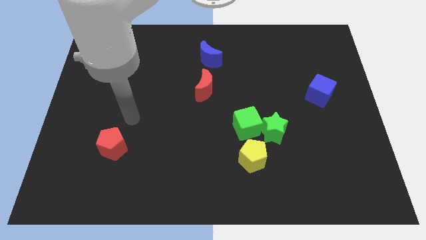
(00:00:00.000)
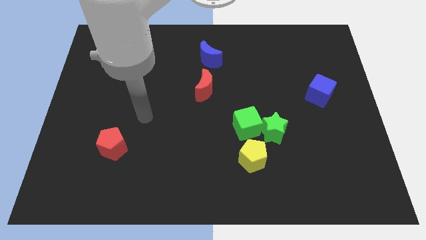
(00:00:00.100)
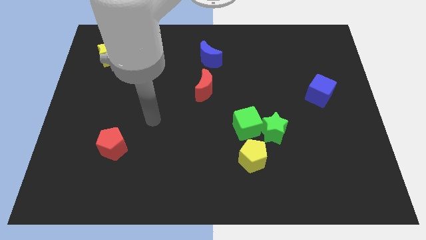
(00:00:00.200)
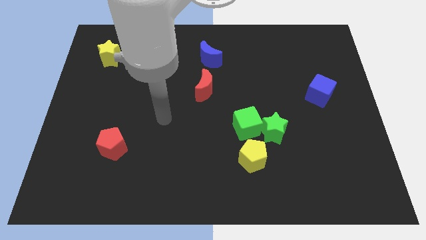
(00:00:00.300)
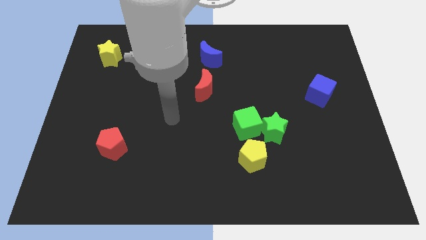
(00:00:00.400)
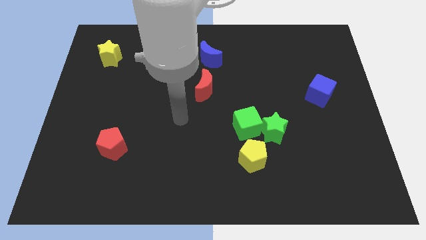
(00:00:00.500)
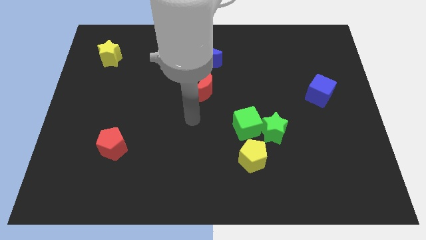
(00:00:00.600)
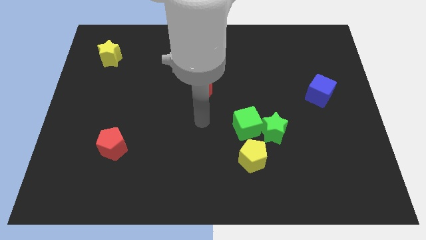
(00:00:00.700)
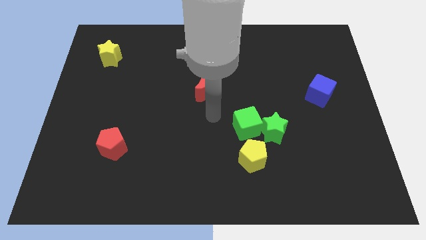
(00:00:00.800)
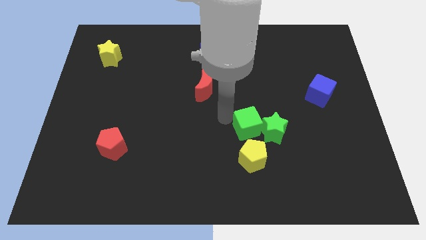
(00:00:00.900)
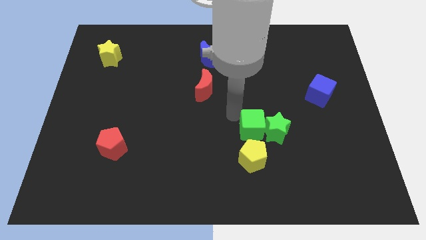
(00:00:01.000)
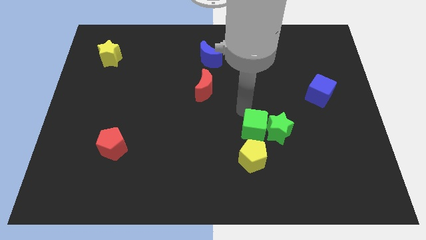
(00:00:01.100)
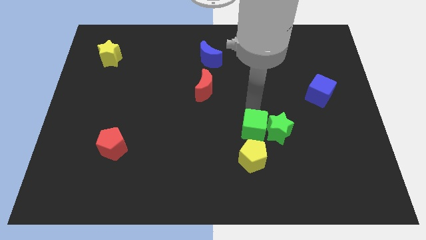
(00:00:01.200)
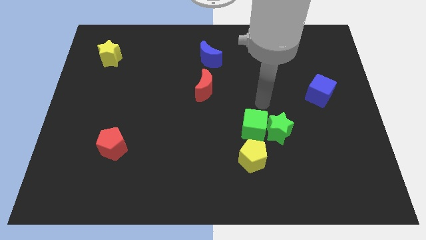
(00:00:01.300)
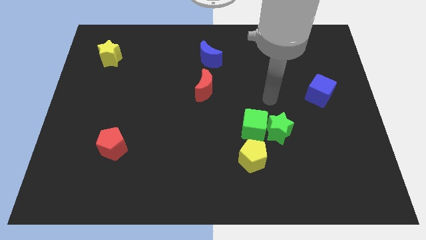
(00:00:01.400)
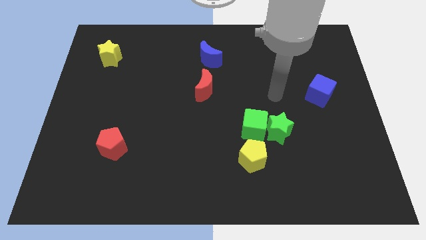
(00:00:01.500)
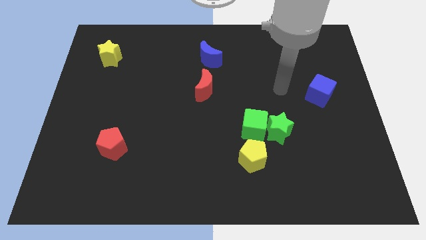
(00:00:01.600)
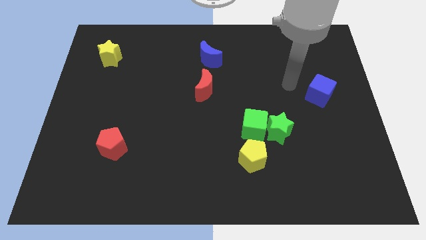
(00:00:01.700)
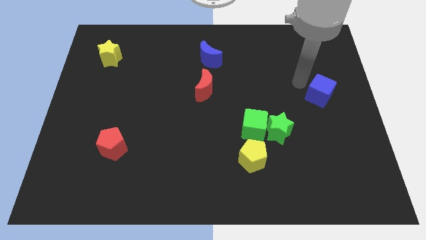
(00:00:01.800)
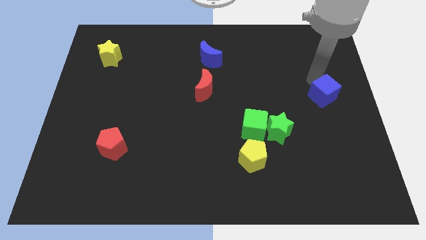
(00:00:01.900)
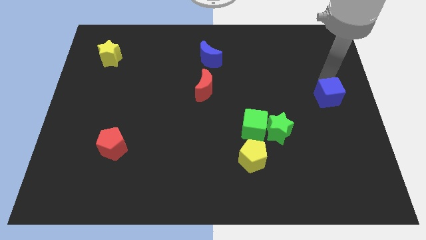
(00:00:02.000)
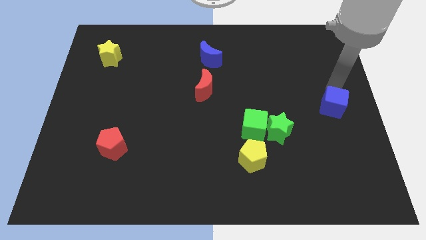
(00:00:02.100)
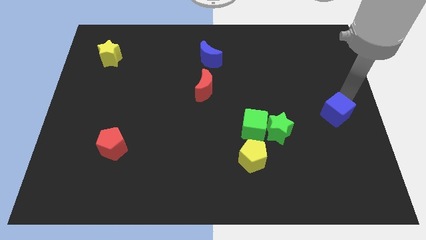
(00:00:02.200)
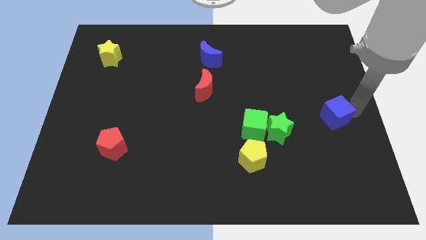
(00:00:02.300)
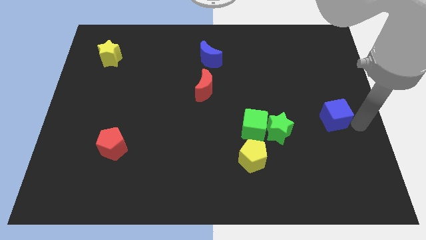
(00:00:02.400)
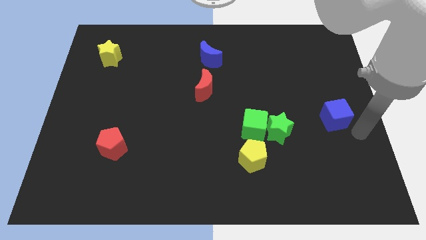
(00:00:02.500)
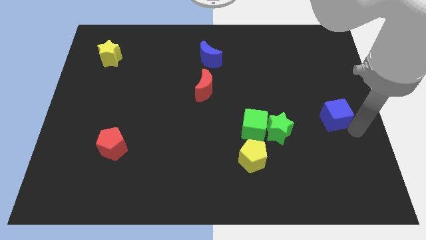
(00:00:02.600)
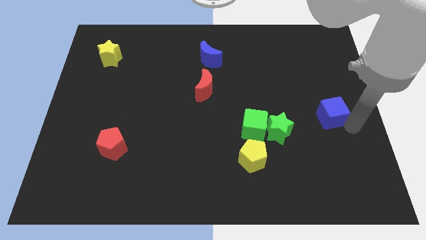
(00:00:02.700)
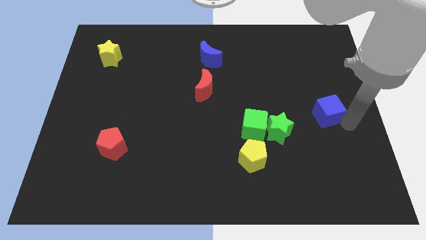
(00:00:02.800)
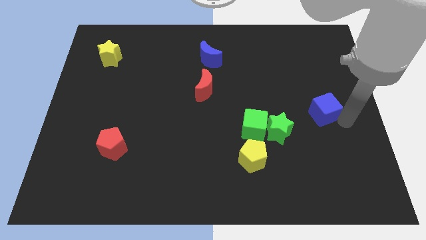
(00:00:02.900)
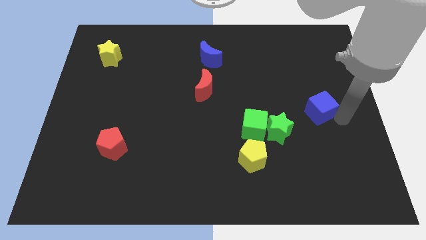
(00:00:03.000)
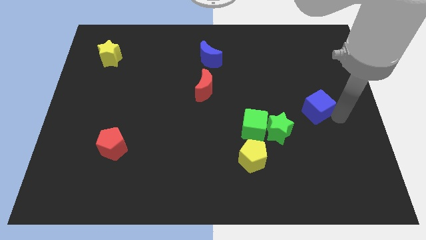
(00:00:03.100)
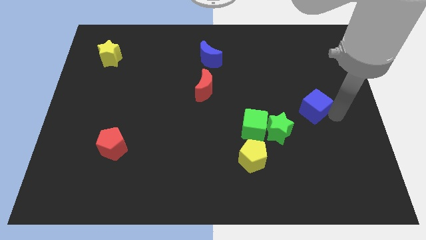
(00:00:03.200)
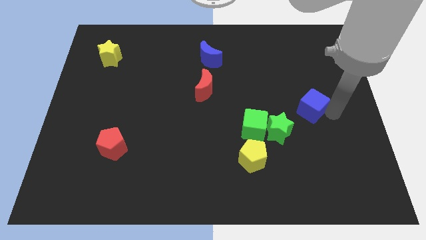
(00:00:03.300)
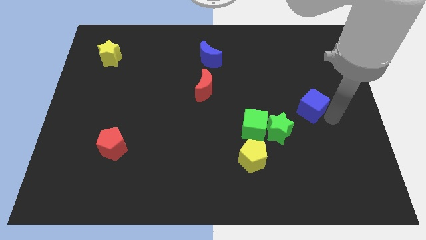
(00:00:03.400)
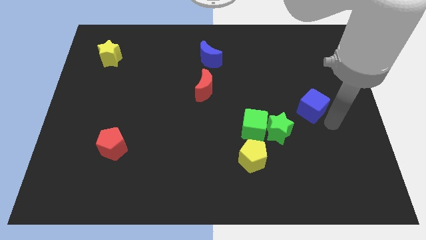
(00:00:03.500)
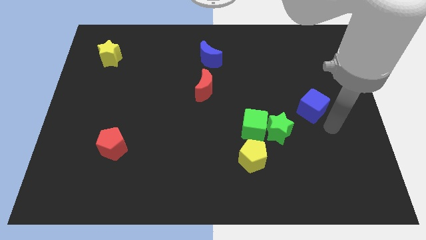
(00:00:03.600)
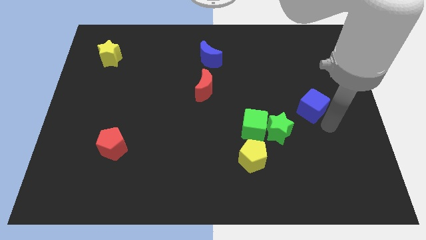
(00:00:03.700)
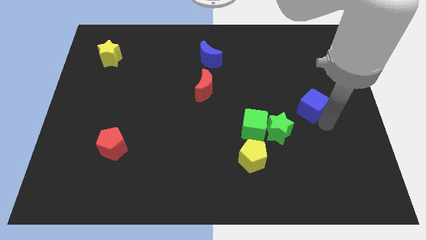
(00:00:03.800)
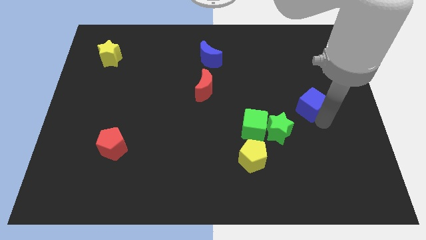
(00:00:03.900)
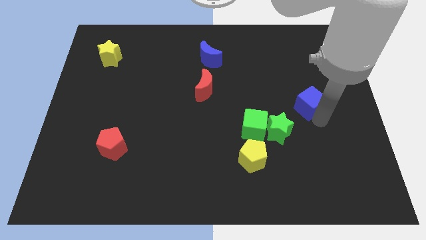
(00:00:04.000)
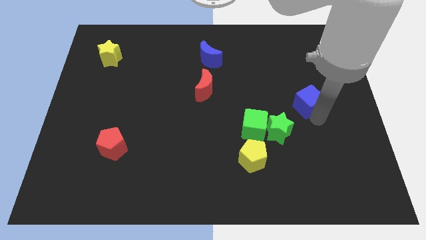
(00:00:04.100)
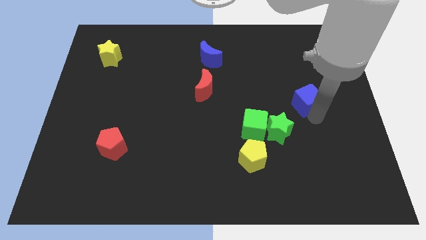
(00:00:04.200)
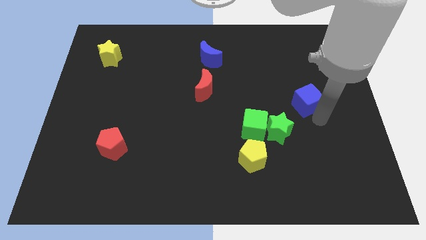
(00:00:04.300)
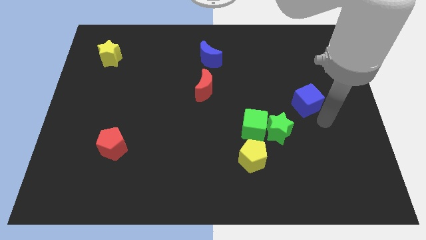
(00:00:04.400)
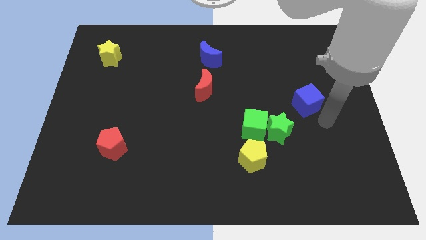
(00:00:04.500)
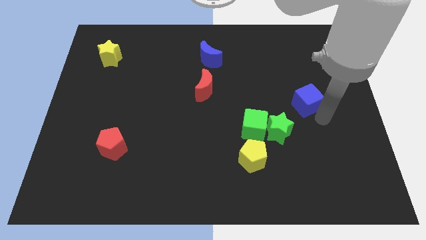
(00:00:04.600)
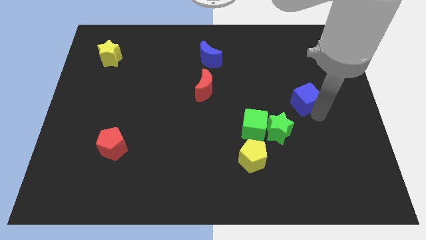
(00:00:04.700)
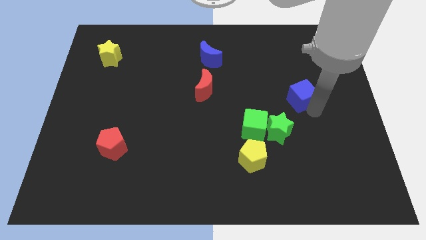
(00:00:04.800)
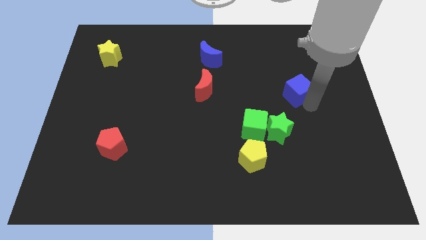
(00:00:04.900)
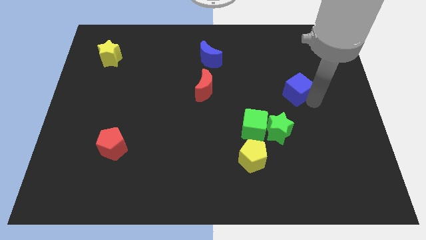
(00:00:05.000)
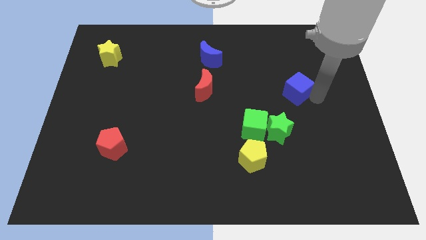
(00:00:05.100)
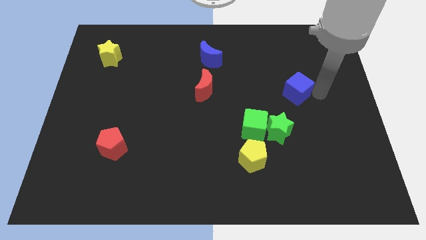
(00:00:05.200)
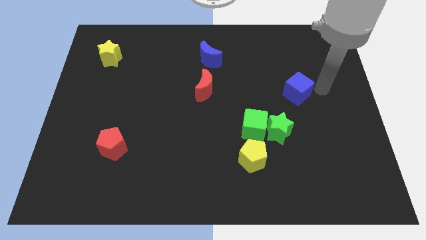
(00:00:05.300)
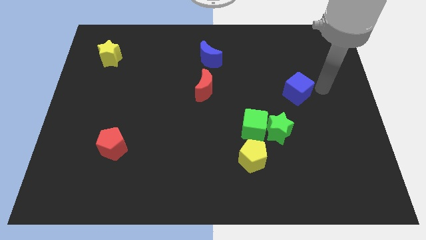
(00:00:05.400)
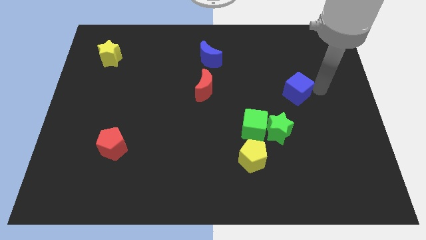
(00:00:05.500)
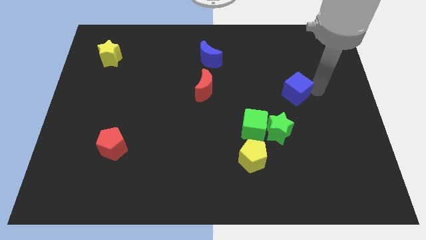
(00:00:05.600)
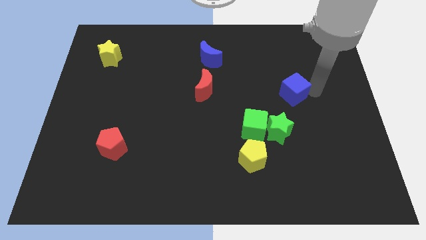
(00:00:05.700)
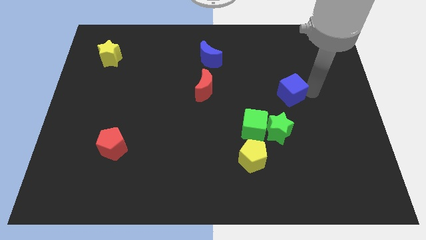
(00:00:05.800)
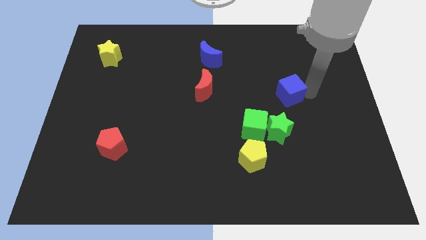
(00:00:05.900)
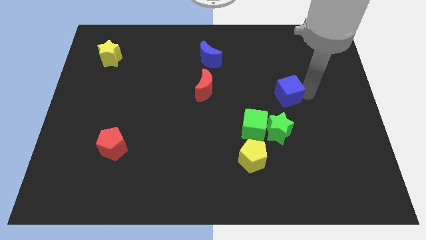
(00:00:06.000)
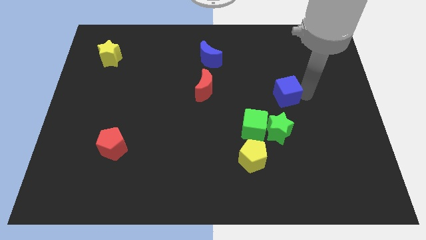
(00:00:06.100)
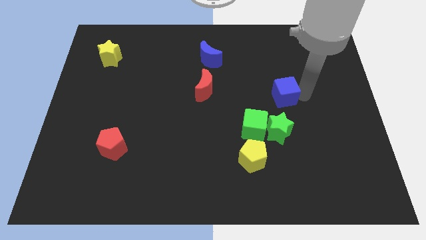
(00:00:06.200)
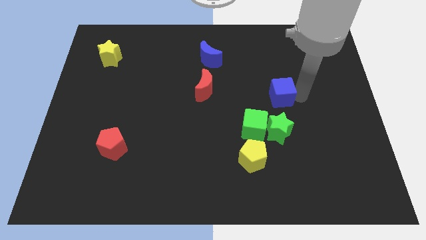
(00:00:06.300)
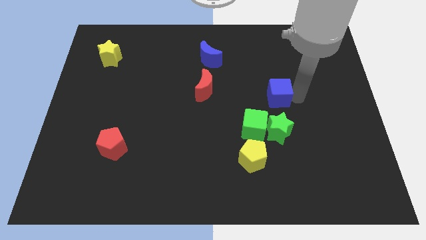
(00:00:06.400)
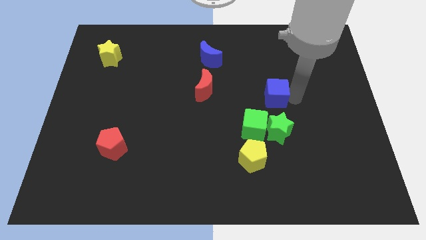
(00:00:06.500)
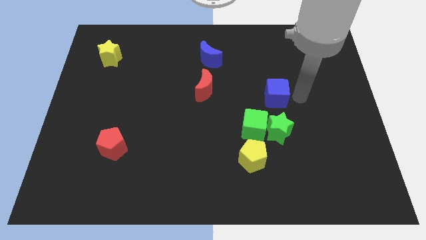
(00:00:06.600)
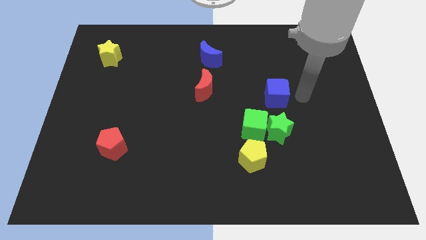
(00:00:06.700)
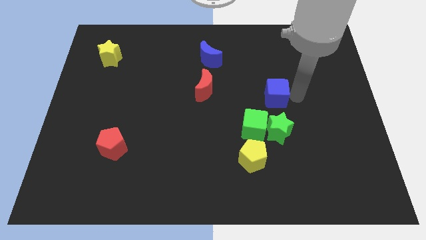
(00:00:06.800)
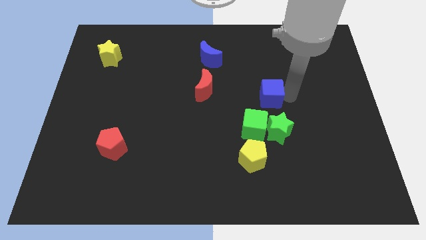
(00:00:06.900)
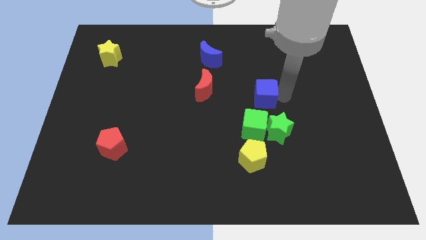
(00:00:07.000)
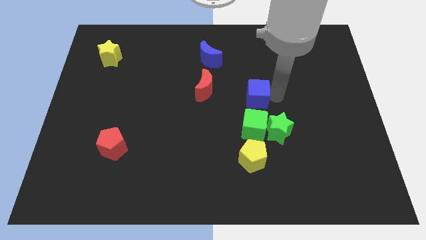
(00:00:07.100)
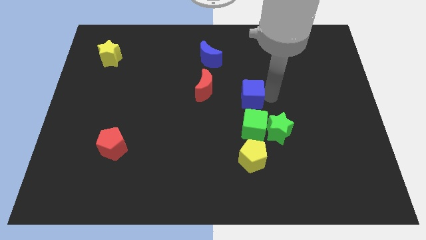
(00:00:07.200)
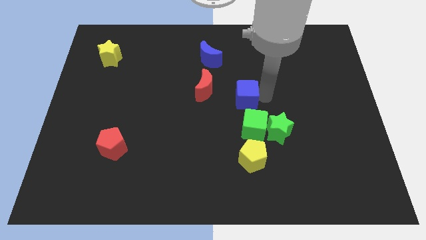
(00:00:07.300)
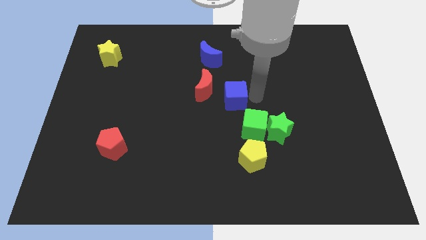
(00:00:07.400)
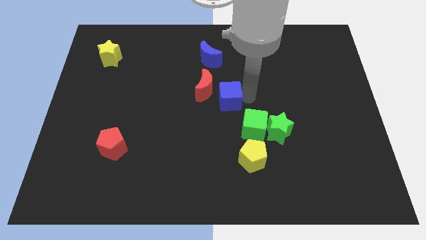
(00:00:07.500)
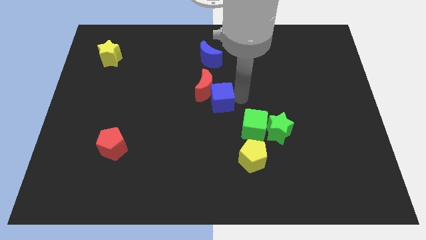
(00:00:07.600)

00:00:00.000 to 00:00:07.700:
move the blue cube below the blue moon
